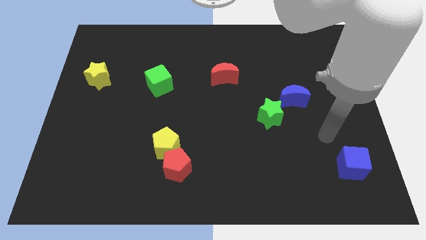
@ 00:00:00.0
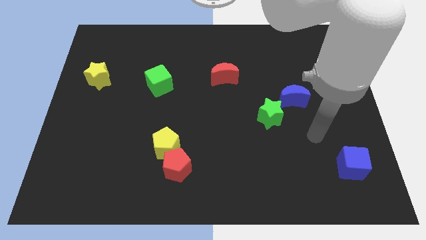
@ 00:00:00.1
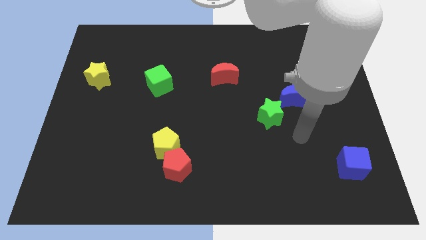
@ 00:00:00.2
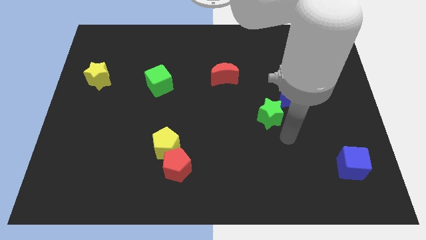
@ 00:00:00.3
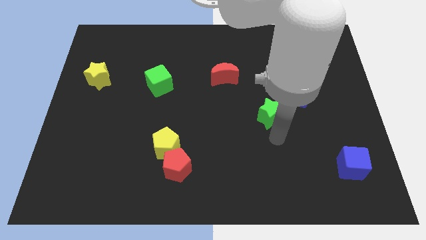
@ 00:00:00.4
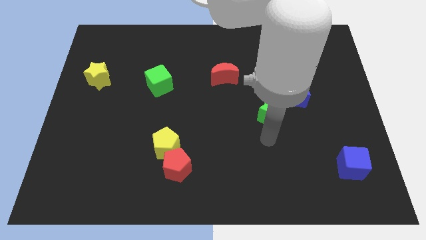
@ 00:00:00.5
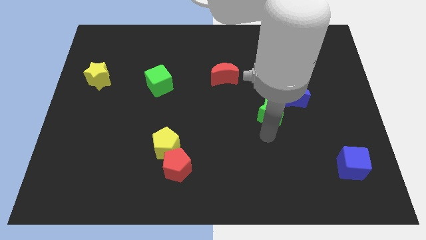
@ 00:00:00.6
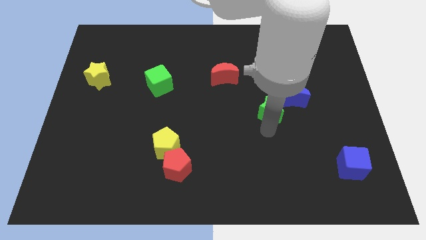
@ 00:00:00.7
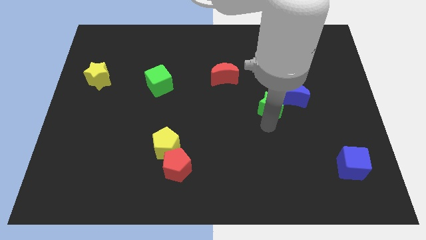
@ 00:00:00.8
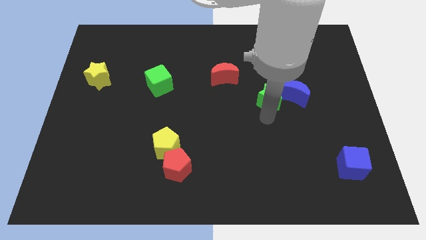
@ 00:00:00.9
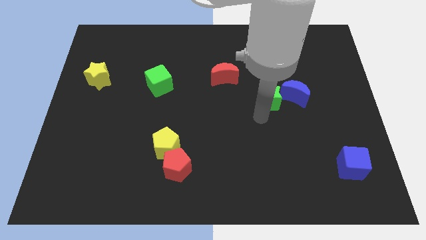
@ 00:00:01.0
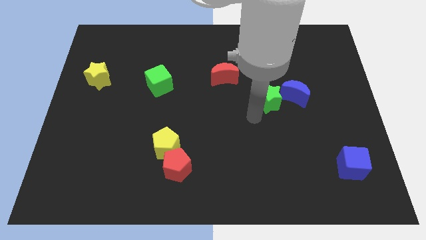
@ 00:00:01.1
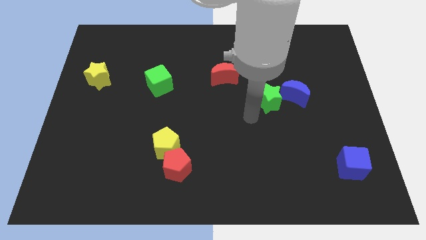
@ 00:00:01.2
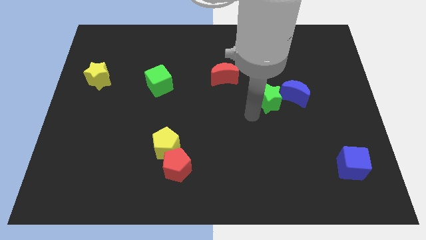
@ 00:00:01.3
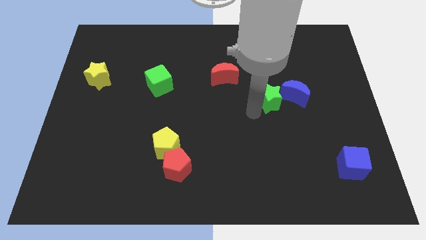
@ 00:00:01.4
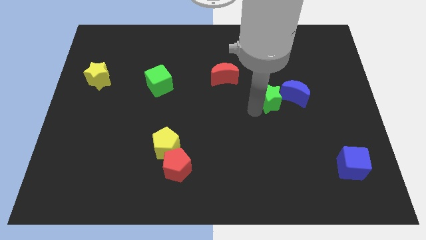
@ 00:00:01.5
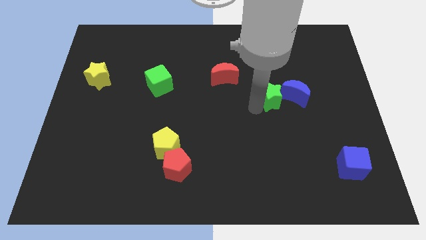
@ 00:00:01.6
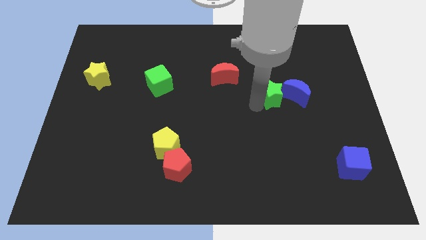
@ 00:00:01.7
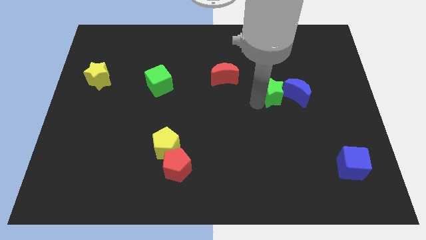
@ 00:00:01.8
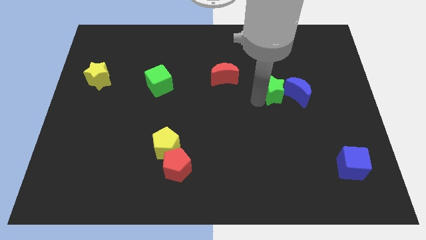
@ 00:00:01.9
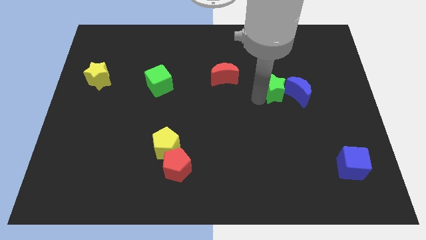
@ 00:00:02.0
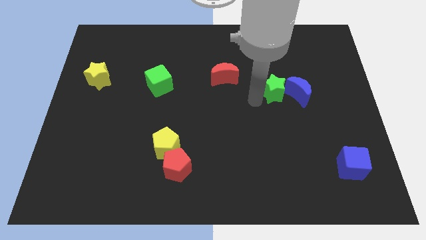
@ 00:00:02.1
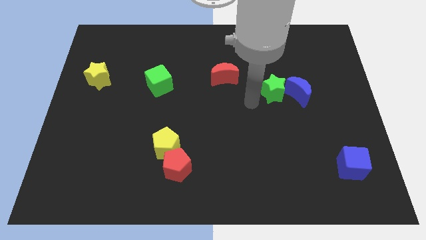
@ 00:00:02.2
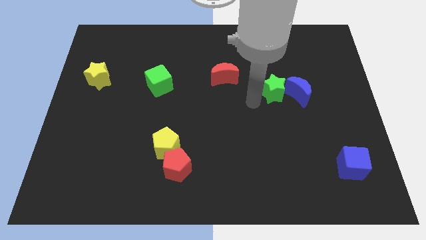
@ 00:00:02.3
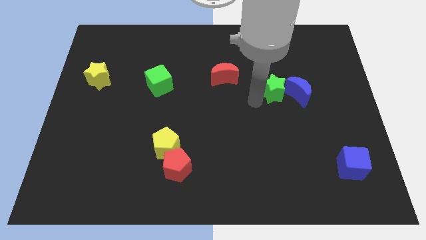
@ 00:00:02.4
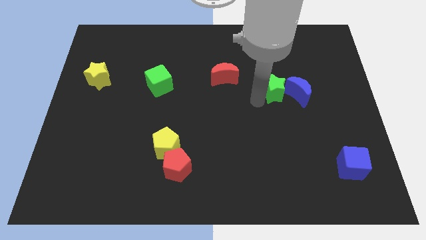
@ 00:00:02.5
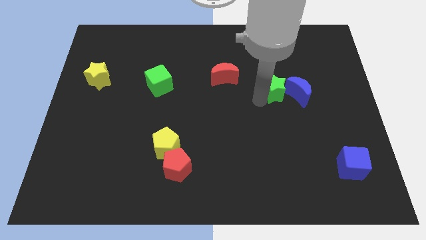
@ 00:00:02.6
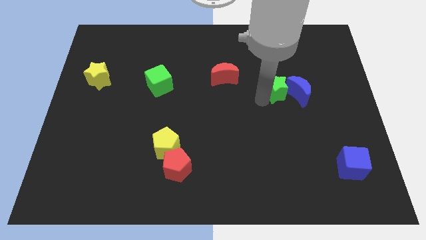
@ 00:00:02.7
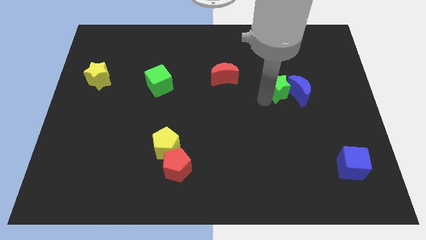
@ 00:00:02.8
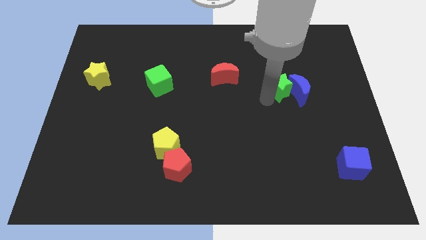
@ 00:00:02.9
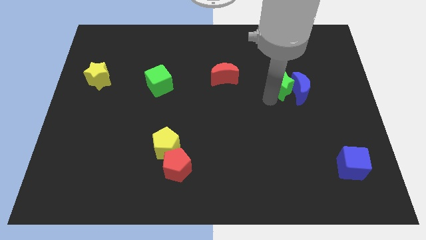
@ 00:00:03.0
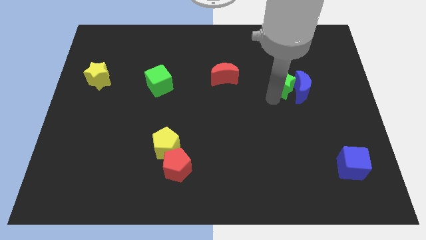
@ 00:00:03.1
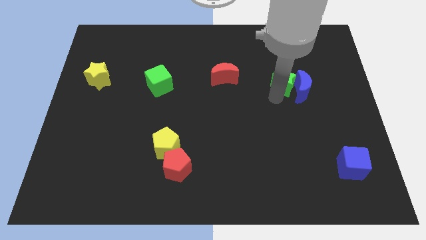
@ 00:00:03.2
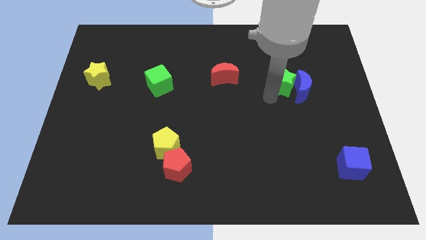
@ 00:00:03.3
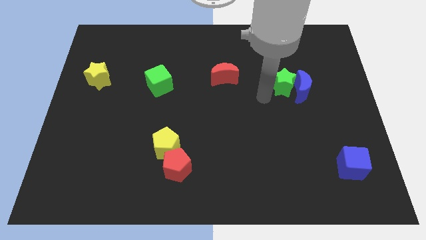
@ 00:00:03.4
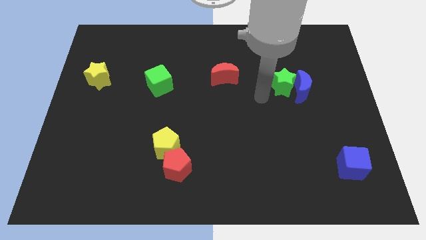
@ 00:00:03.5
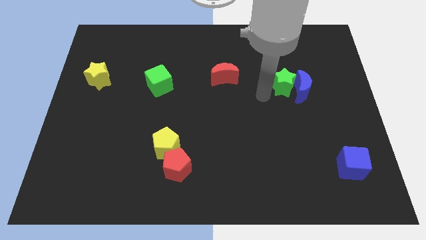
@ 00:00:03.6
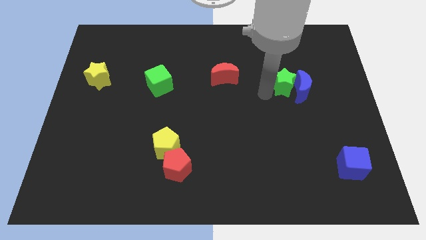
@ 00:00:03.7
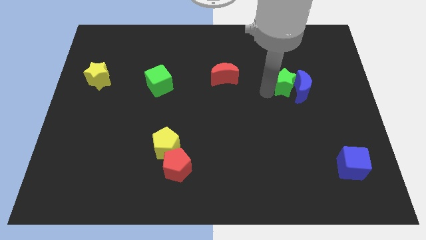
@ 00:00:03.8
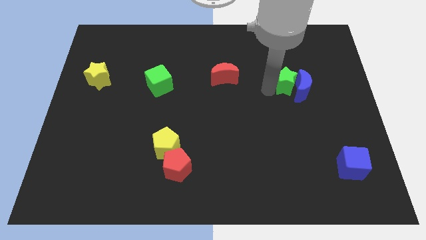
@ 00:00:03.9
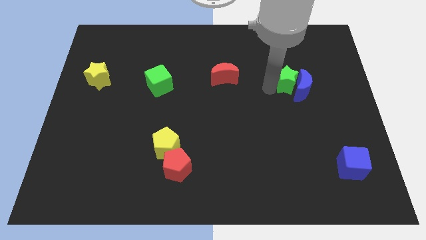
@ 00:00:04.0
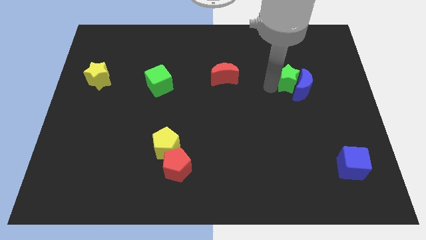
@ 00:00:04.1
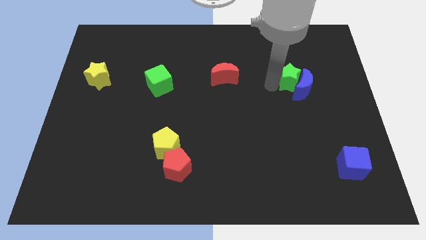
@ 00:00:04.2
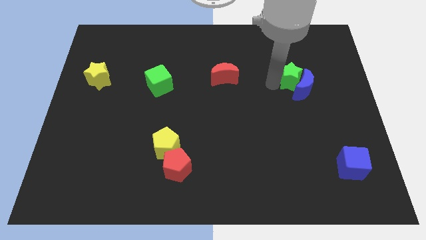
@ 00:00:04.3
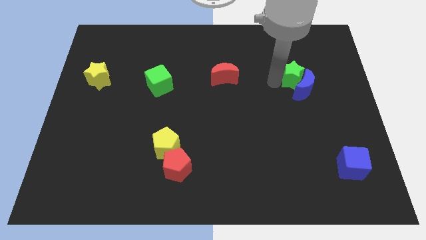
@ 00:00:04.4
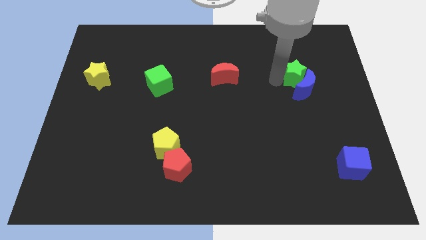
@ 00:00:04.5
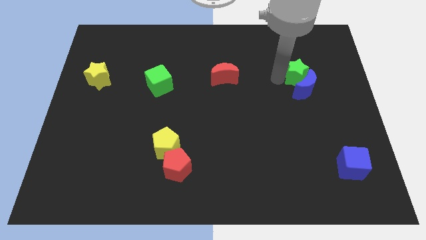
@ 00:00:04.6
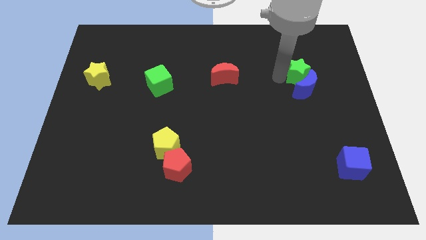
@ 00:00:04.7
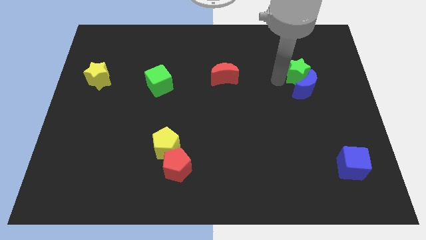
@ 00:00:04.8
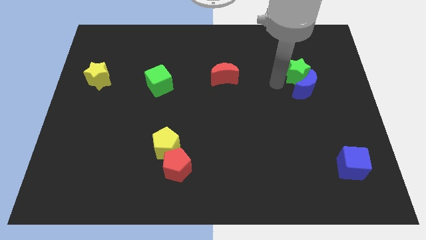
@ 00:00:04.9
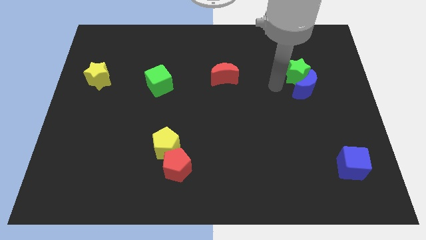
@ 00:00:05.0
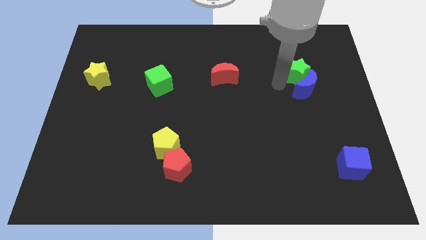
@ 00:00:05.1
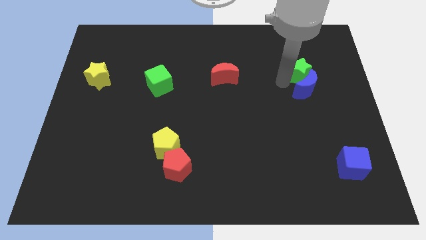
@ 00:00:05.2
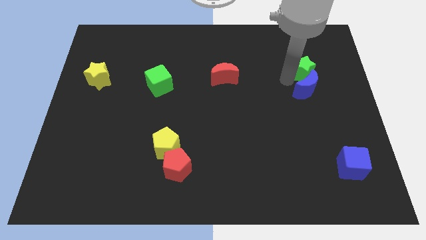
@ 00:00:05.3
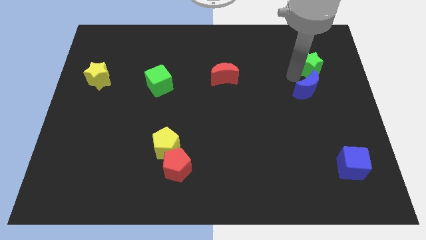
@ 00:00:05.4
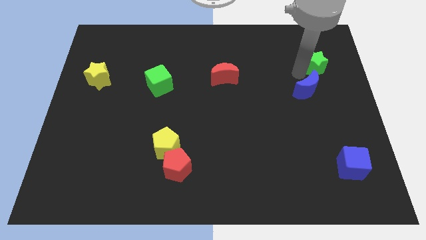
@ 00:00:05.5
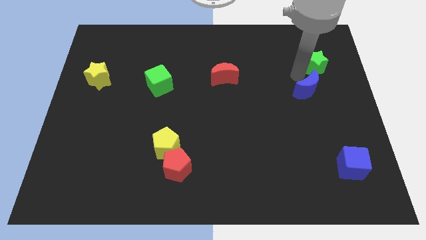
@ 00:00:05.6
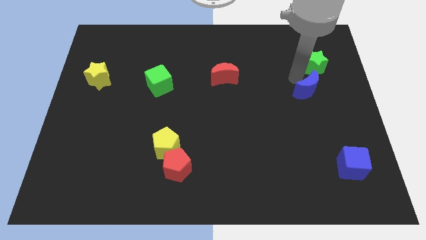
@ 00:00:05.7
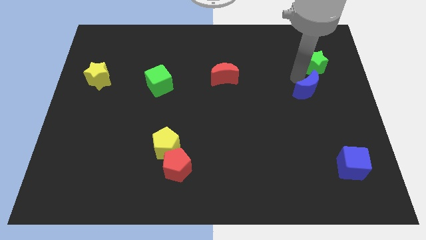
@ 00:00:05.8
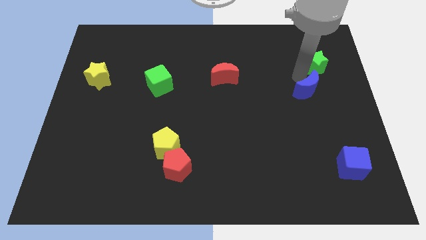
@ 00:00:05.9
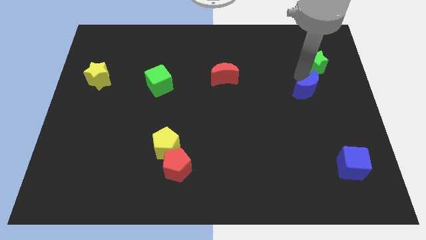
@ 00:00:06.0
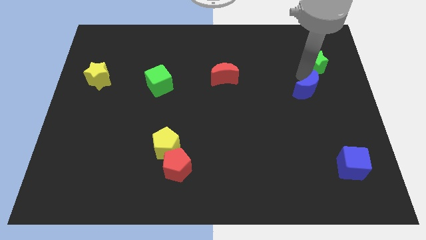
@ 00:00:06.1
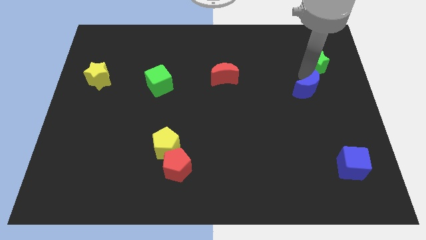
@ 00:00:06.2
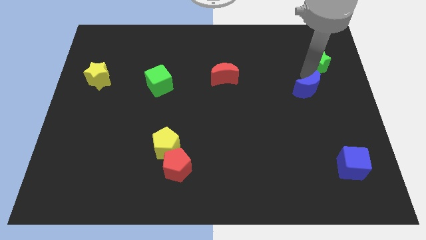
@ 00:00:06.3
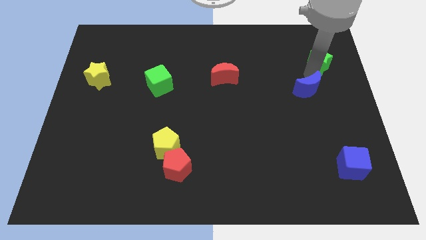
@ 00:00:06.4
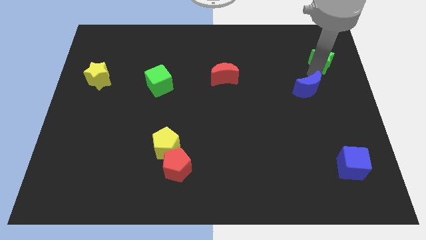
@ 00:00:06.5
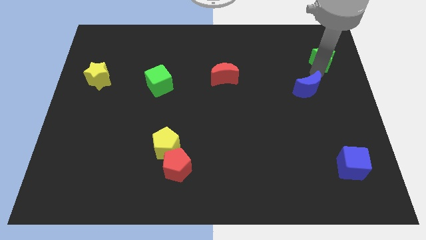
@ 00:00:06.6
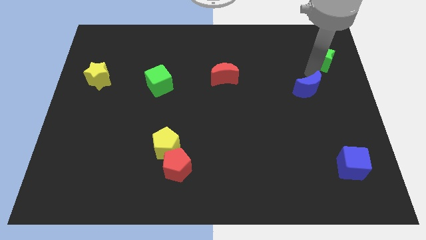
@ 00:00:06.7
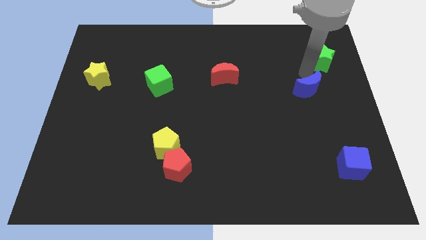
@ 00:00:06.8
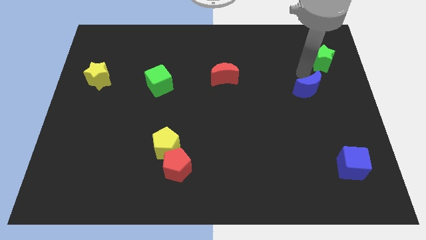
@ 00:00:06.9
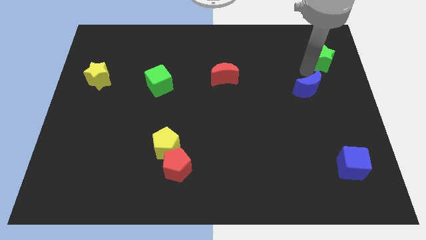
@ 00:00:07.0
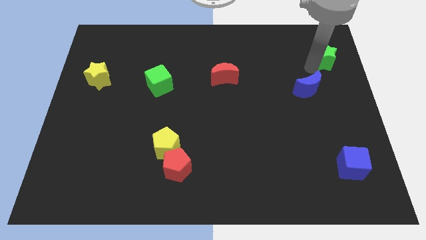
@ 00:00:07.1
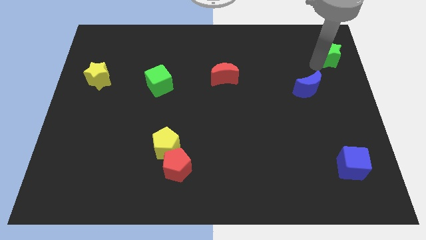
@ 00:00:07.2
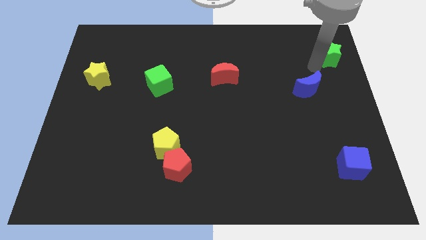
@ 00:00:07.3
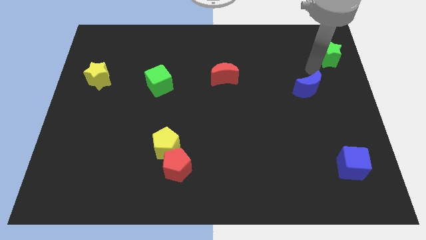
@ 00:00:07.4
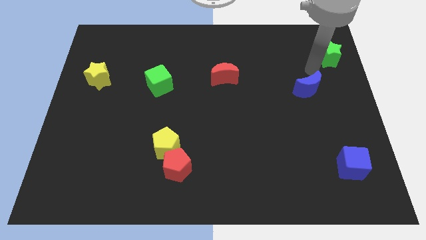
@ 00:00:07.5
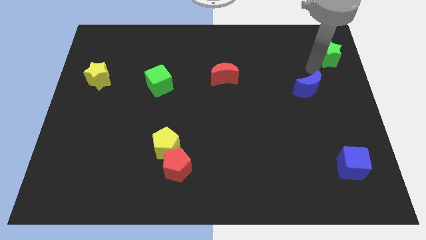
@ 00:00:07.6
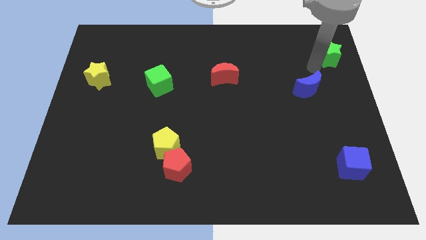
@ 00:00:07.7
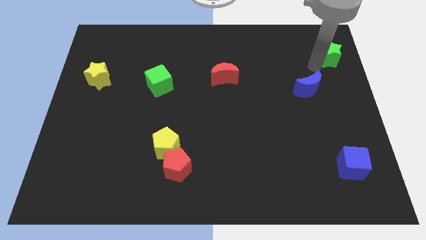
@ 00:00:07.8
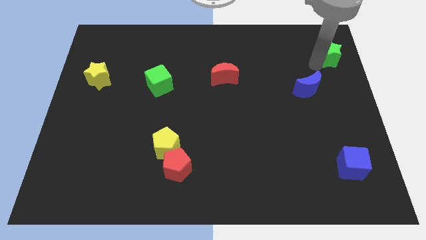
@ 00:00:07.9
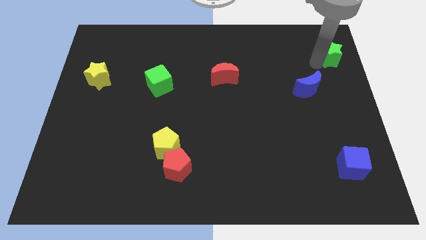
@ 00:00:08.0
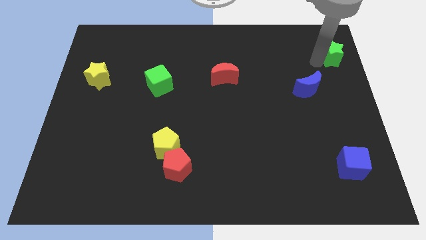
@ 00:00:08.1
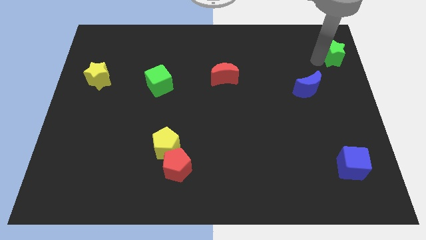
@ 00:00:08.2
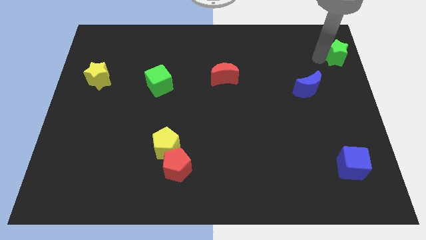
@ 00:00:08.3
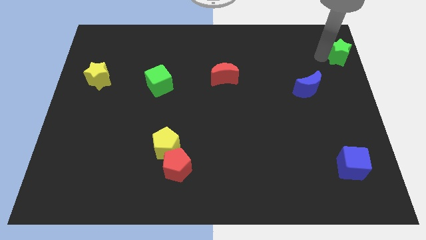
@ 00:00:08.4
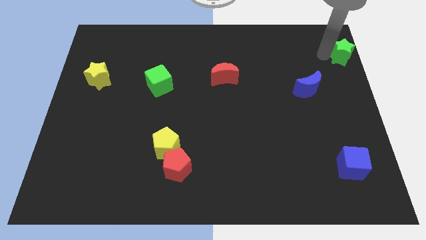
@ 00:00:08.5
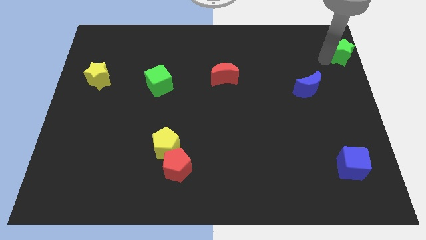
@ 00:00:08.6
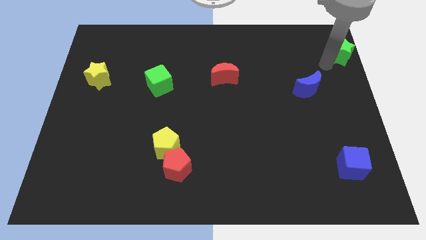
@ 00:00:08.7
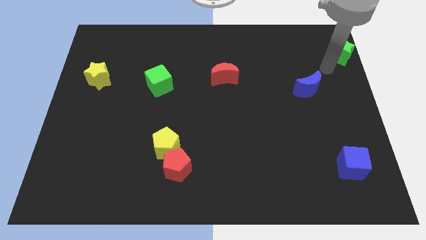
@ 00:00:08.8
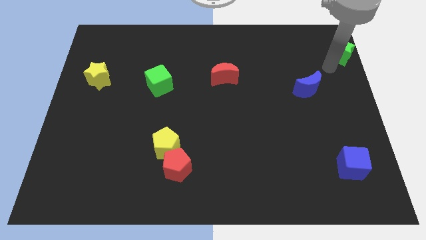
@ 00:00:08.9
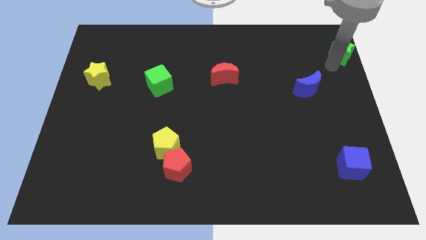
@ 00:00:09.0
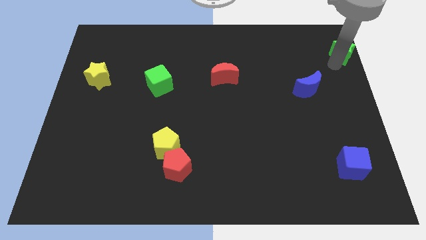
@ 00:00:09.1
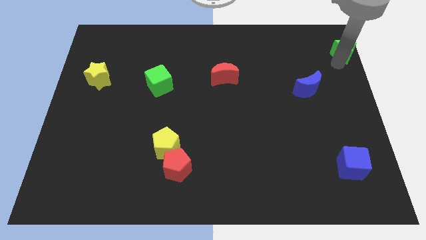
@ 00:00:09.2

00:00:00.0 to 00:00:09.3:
put the green star to the top right corner
